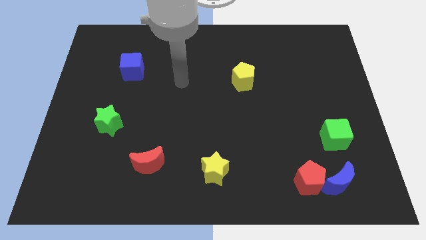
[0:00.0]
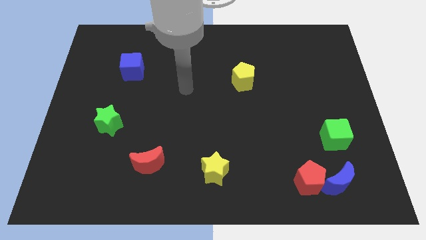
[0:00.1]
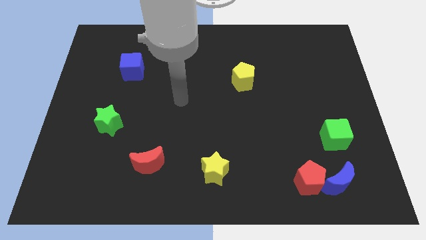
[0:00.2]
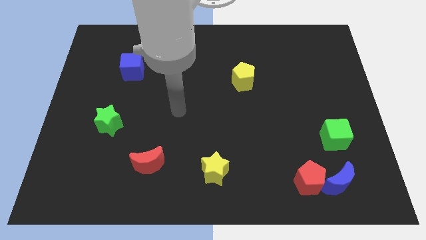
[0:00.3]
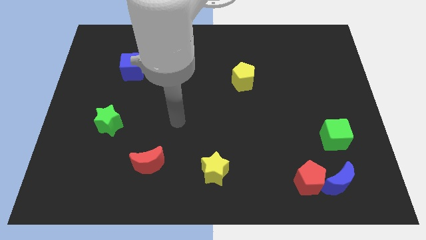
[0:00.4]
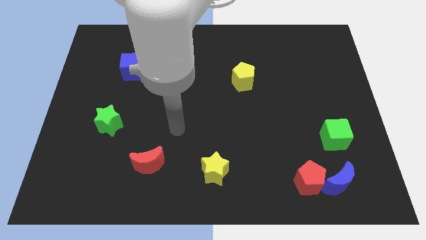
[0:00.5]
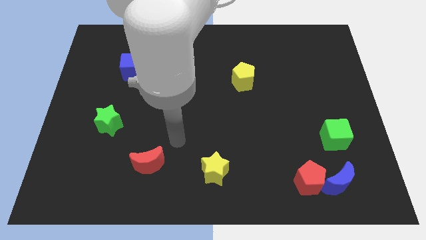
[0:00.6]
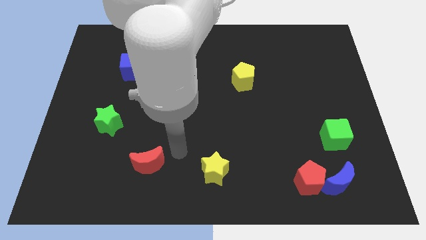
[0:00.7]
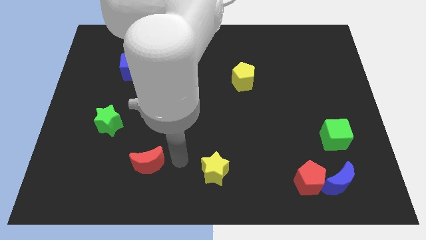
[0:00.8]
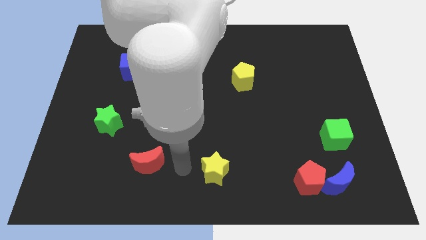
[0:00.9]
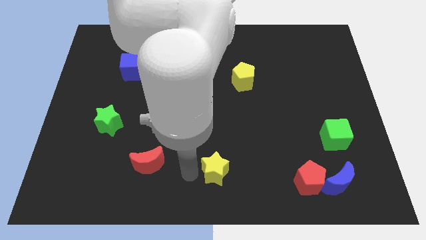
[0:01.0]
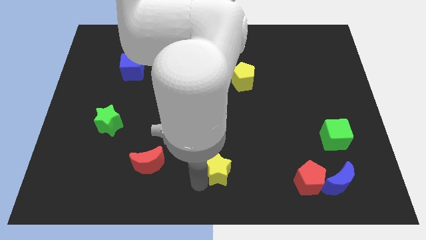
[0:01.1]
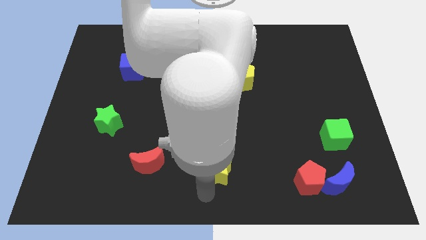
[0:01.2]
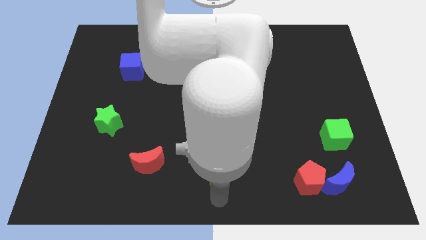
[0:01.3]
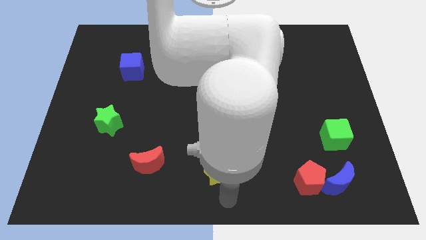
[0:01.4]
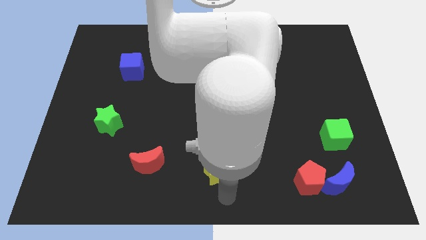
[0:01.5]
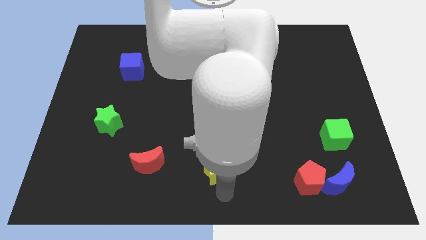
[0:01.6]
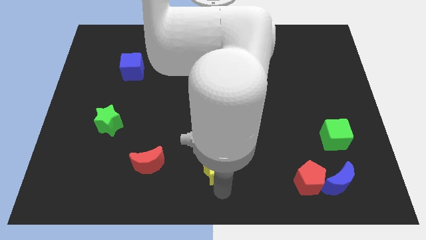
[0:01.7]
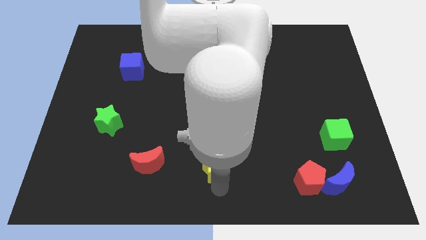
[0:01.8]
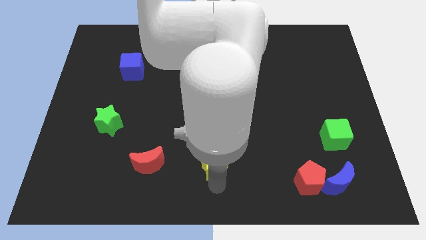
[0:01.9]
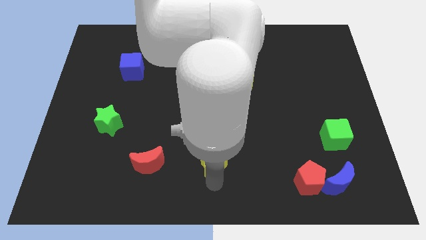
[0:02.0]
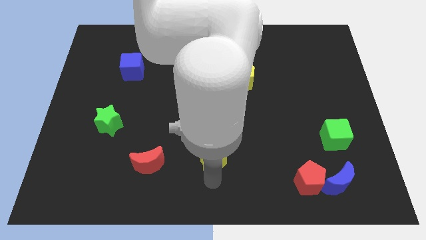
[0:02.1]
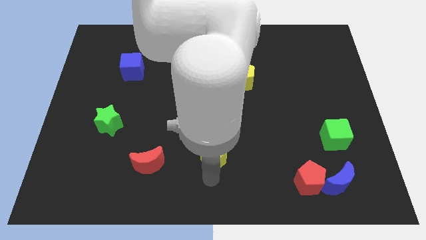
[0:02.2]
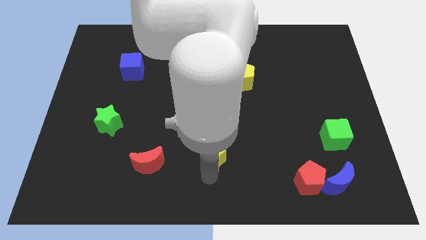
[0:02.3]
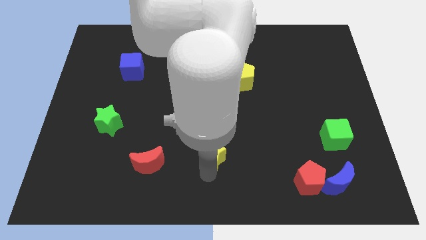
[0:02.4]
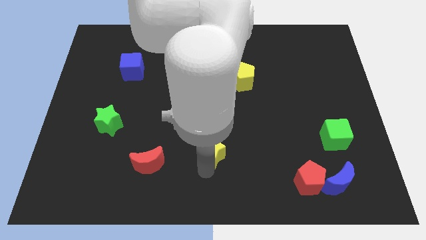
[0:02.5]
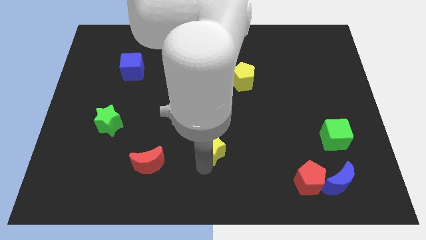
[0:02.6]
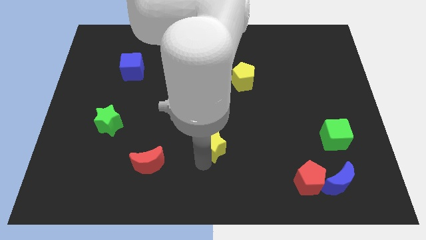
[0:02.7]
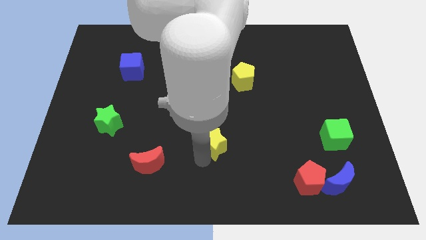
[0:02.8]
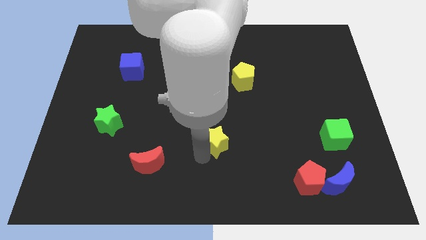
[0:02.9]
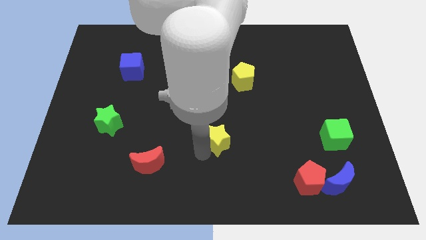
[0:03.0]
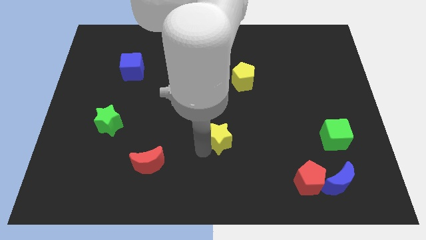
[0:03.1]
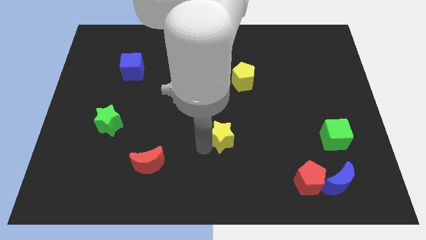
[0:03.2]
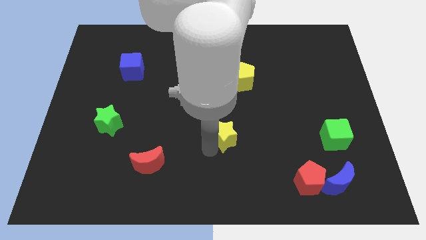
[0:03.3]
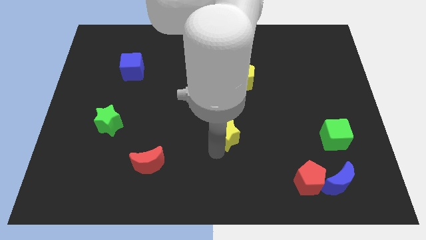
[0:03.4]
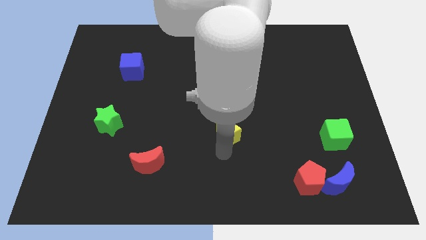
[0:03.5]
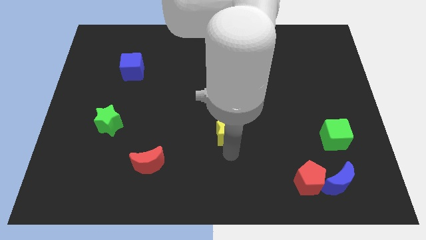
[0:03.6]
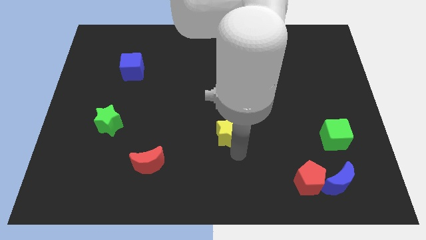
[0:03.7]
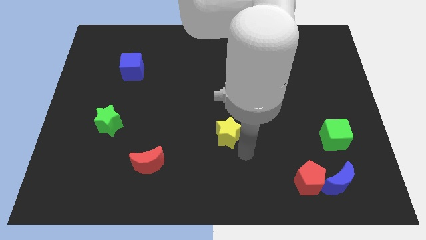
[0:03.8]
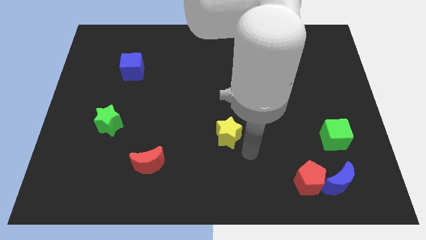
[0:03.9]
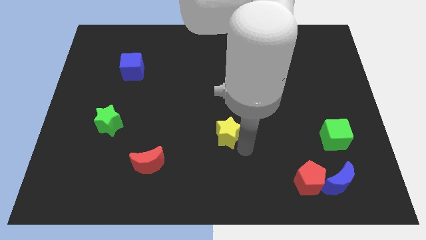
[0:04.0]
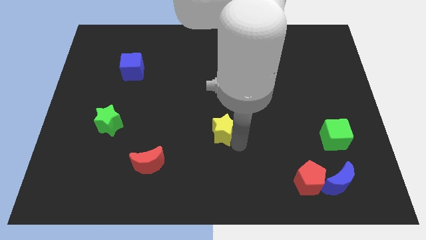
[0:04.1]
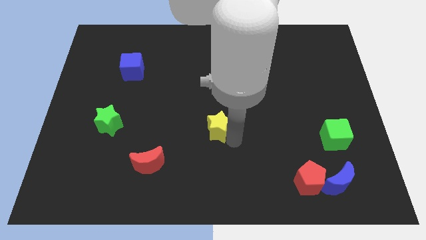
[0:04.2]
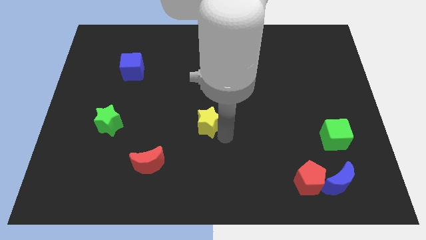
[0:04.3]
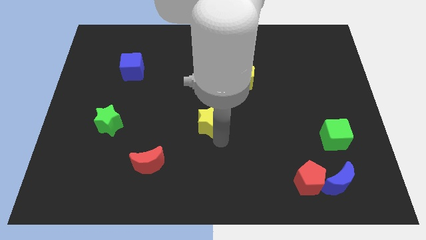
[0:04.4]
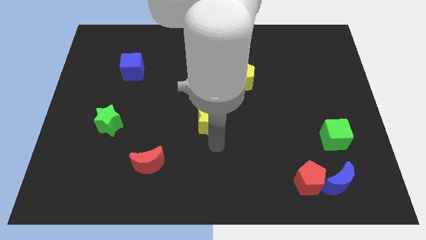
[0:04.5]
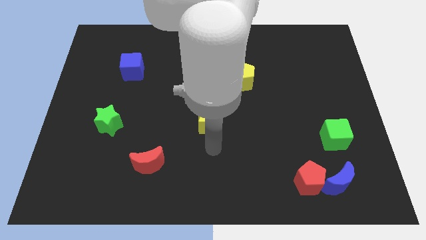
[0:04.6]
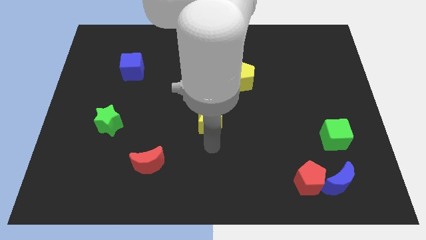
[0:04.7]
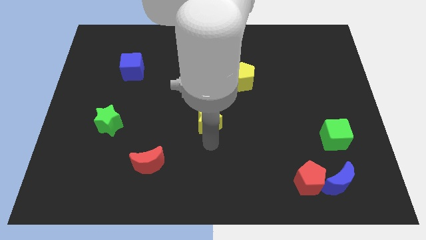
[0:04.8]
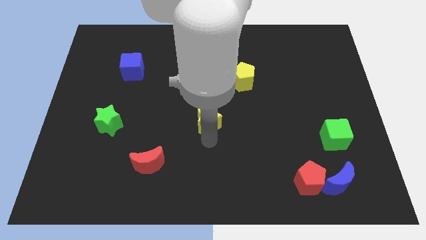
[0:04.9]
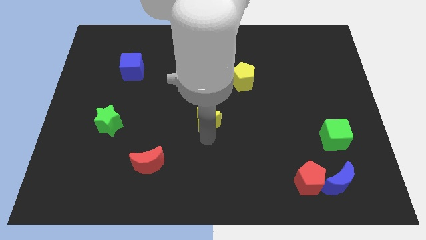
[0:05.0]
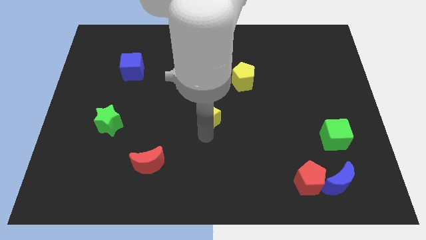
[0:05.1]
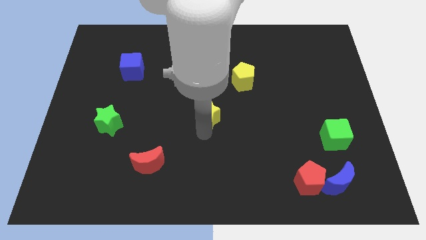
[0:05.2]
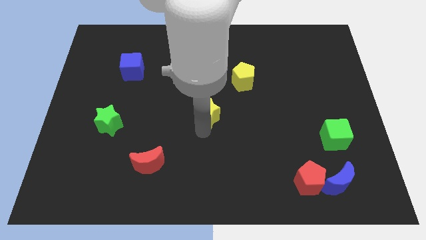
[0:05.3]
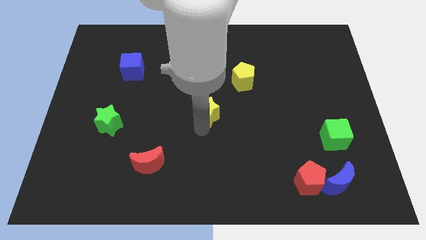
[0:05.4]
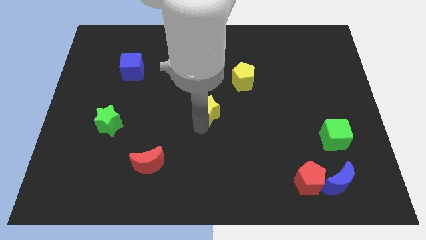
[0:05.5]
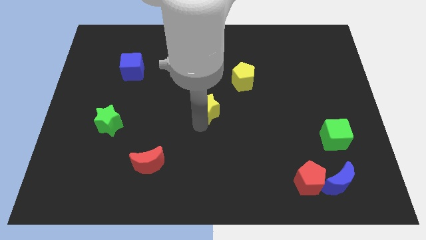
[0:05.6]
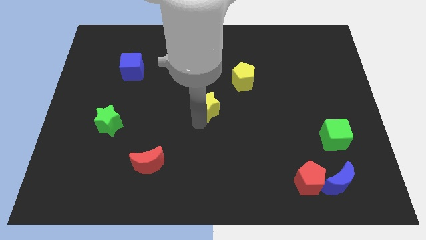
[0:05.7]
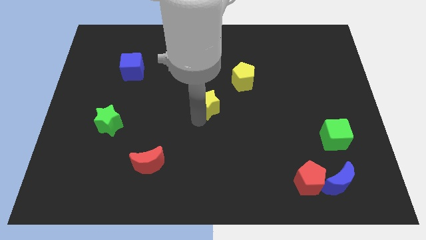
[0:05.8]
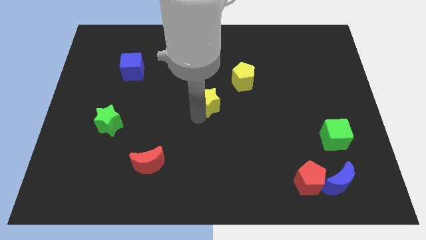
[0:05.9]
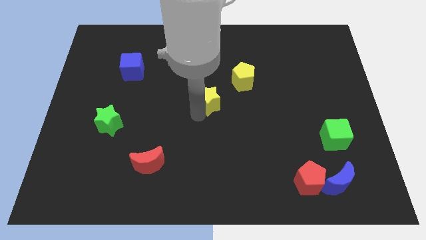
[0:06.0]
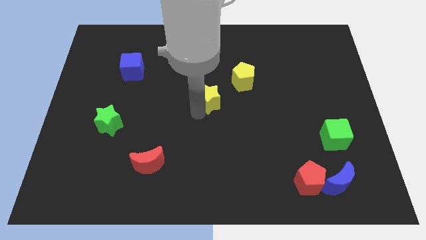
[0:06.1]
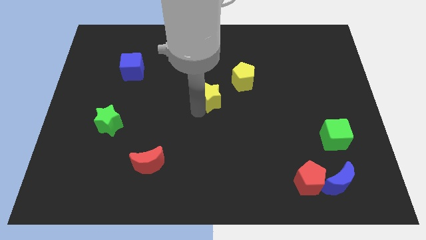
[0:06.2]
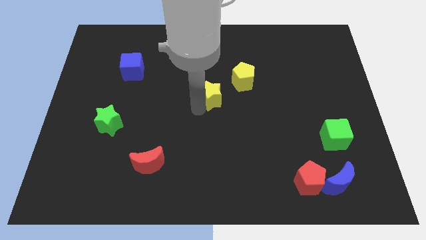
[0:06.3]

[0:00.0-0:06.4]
move the yellow star upwards

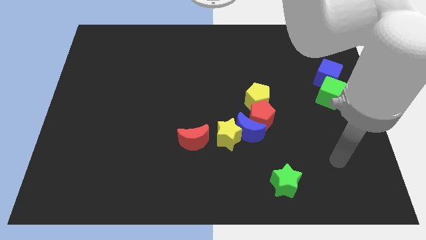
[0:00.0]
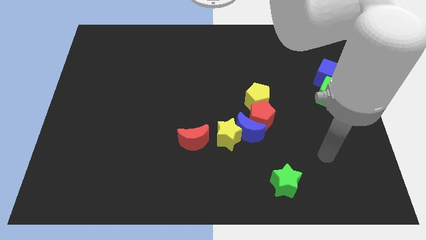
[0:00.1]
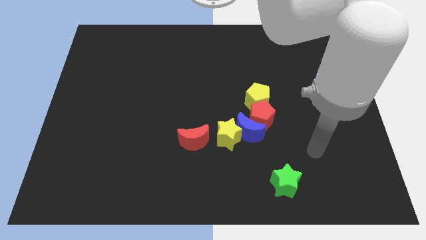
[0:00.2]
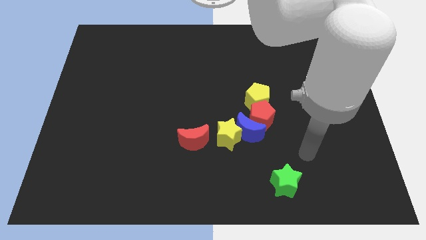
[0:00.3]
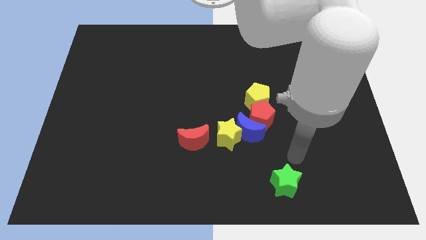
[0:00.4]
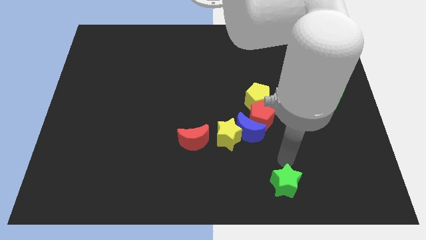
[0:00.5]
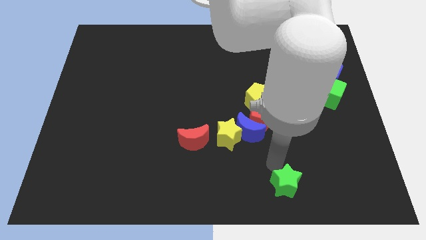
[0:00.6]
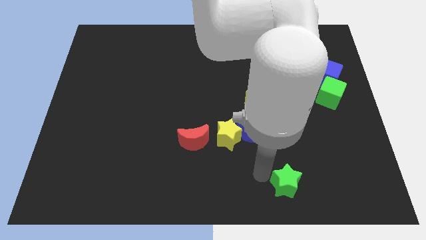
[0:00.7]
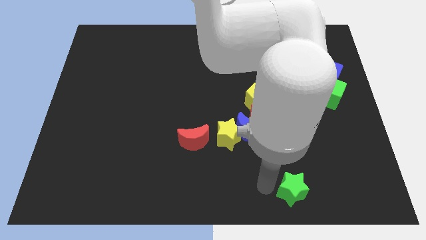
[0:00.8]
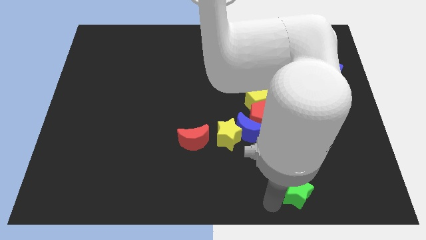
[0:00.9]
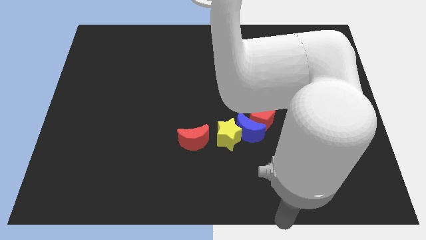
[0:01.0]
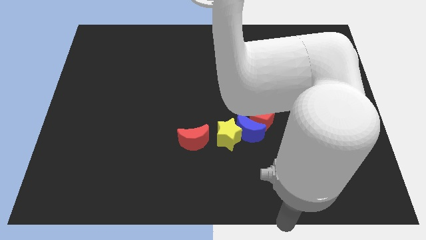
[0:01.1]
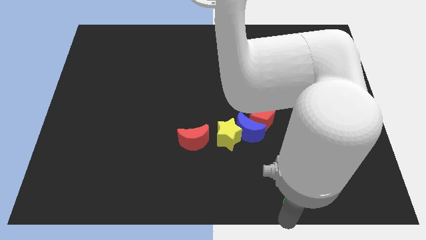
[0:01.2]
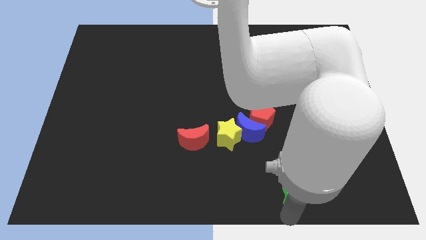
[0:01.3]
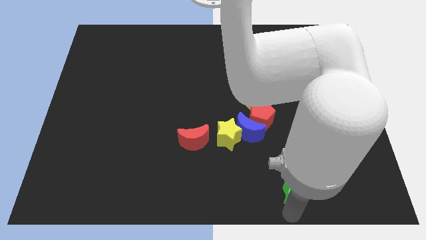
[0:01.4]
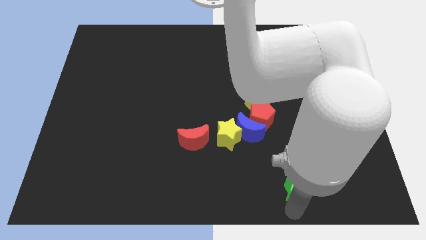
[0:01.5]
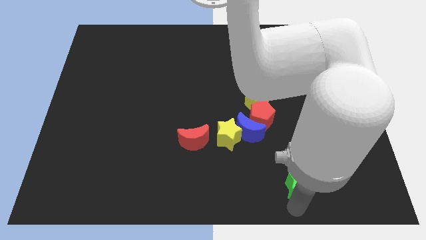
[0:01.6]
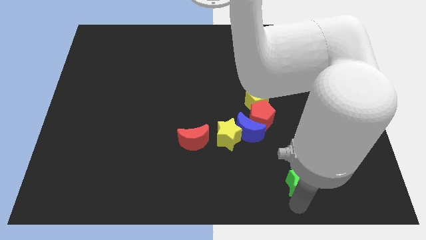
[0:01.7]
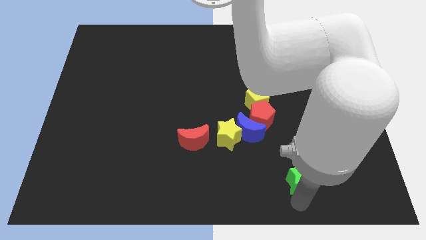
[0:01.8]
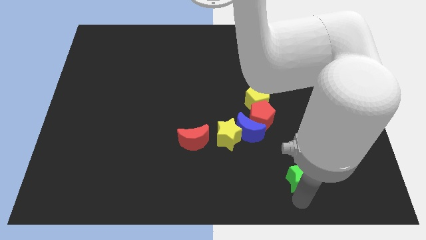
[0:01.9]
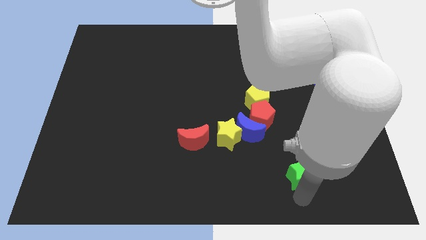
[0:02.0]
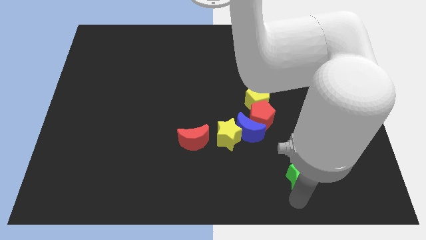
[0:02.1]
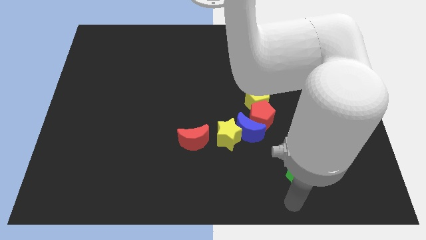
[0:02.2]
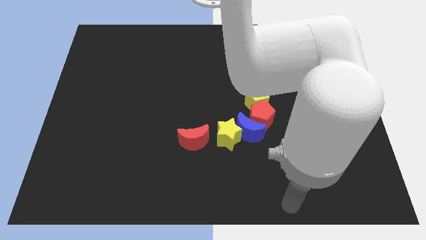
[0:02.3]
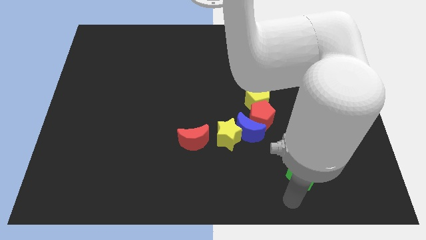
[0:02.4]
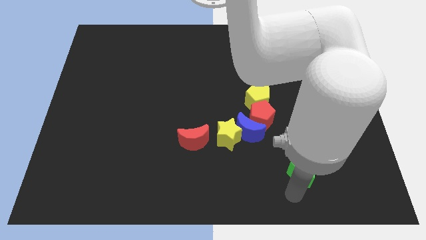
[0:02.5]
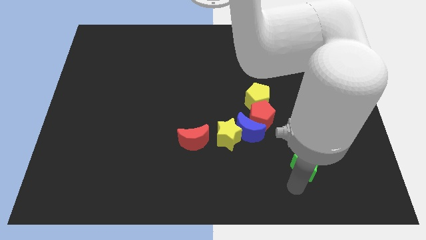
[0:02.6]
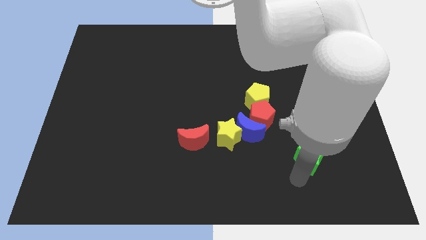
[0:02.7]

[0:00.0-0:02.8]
slightly move the green star up and to the right
